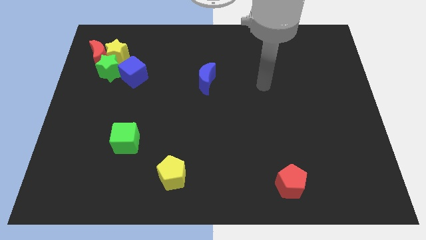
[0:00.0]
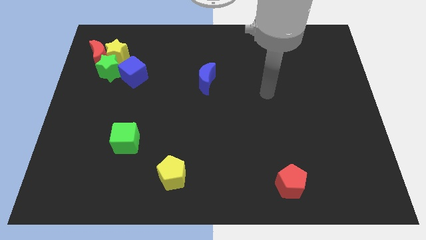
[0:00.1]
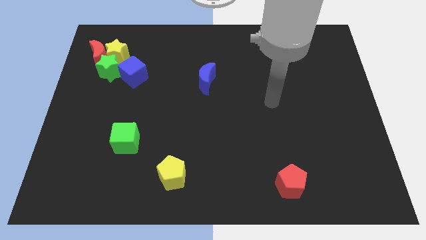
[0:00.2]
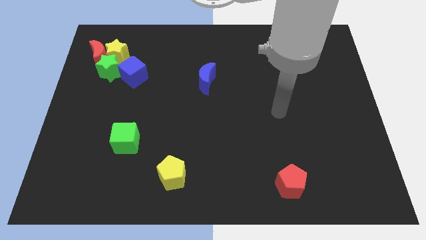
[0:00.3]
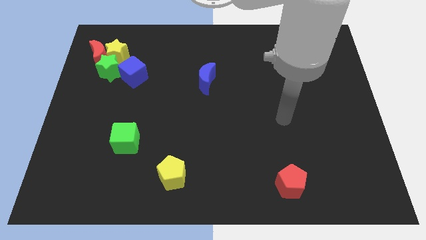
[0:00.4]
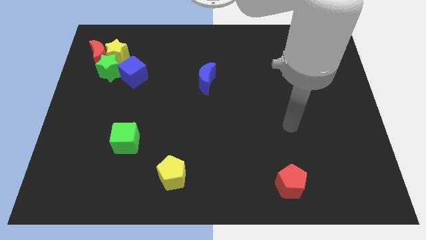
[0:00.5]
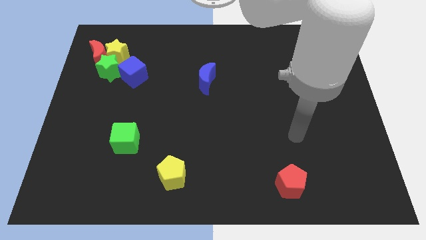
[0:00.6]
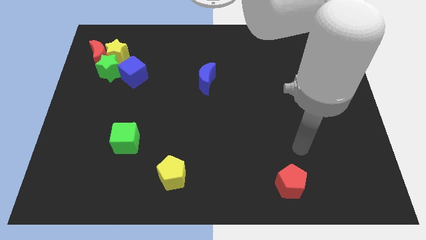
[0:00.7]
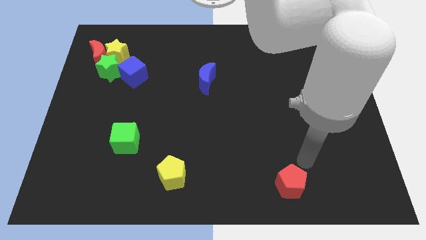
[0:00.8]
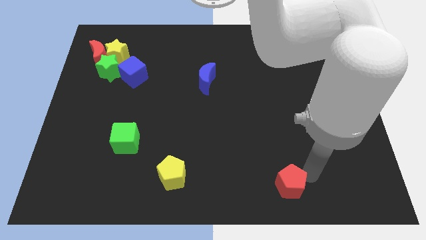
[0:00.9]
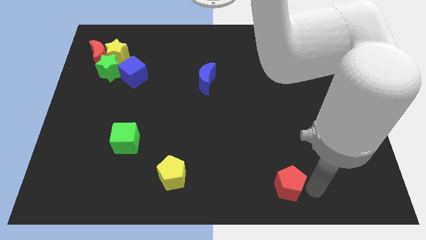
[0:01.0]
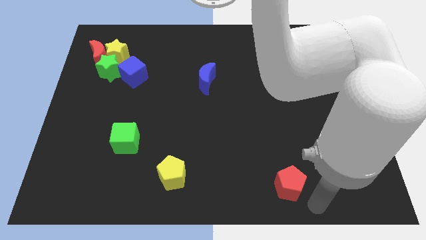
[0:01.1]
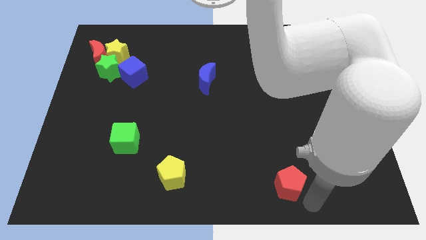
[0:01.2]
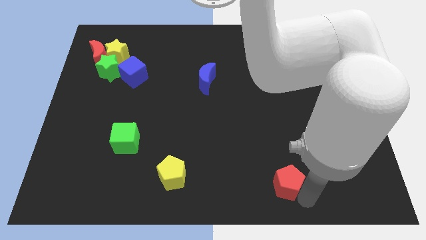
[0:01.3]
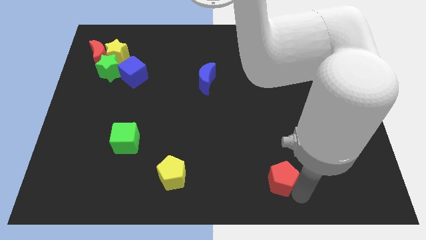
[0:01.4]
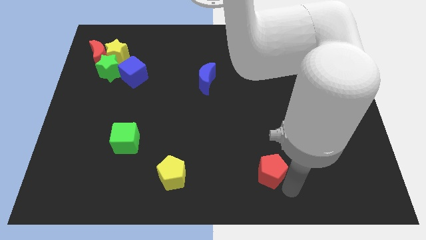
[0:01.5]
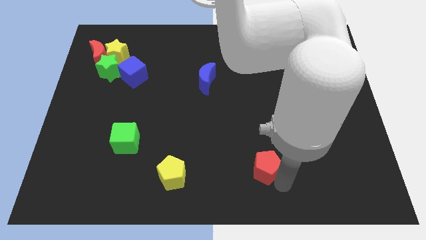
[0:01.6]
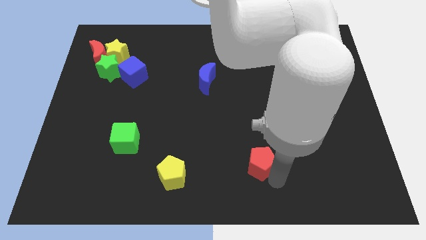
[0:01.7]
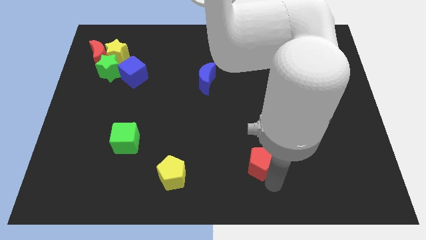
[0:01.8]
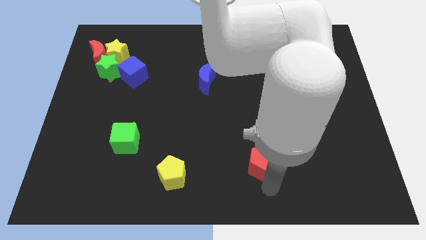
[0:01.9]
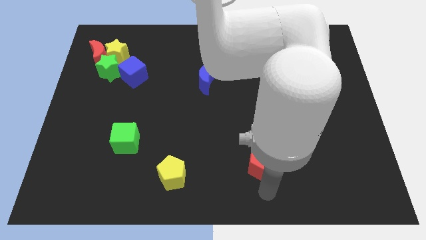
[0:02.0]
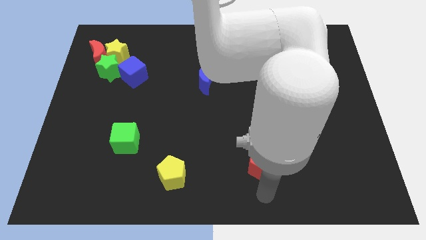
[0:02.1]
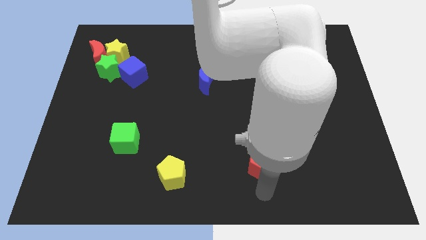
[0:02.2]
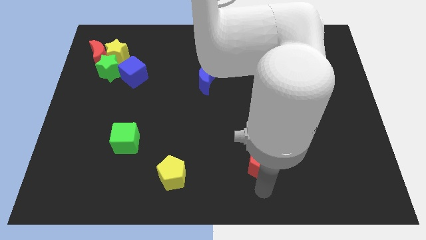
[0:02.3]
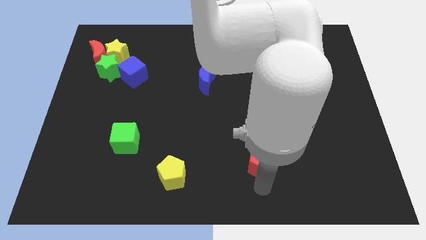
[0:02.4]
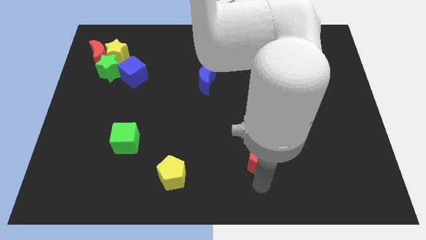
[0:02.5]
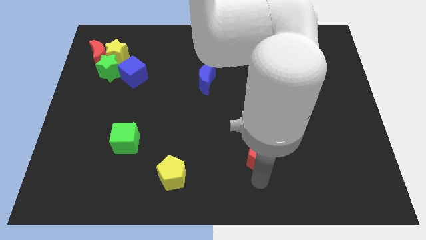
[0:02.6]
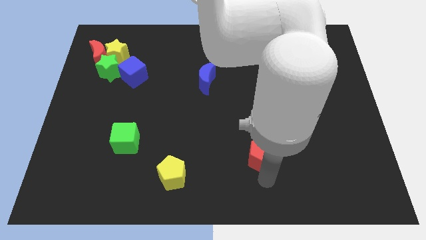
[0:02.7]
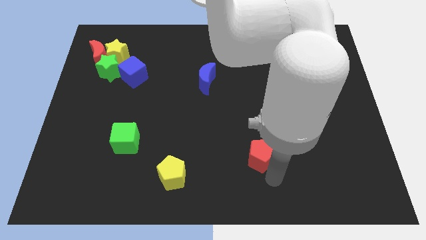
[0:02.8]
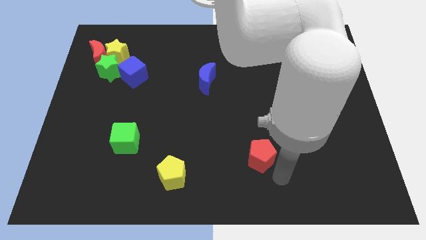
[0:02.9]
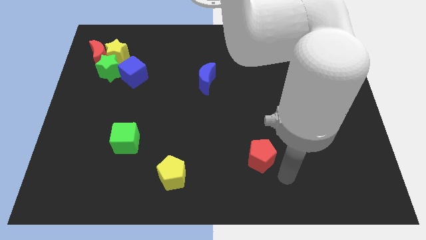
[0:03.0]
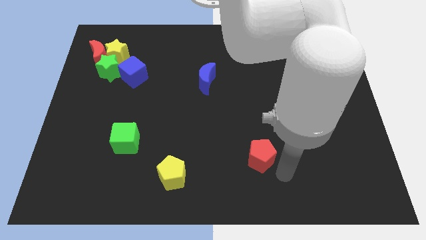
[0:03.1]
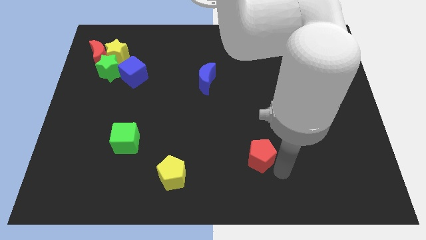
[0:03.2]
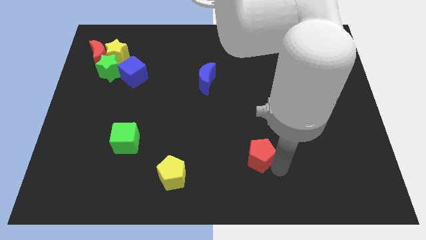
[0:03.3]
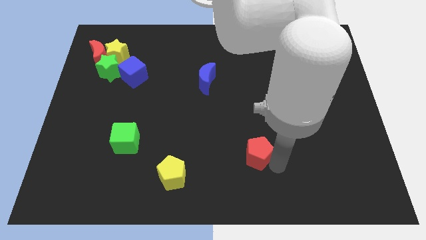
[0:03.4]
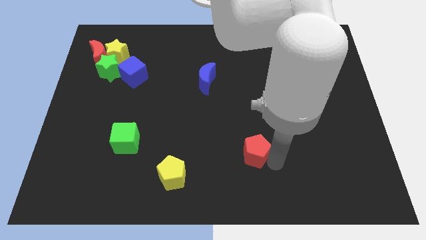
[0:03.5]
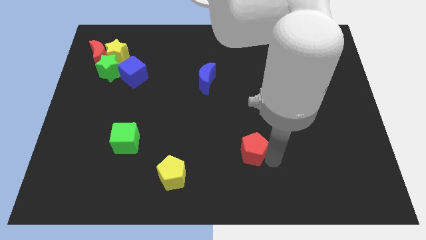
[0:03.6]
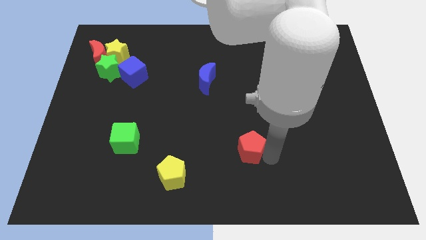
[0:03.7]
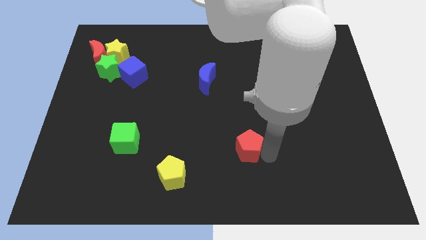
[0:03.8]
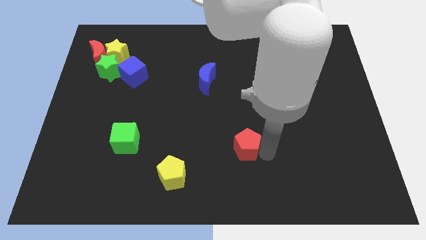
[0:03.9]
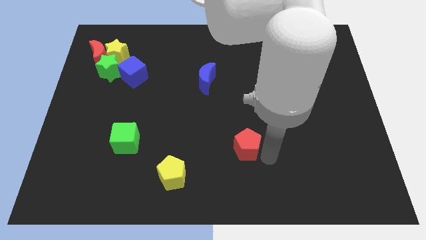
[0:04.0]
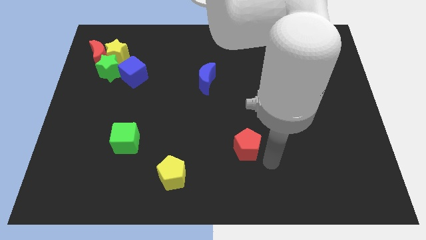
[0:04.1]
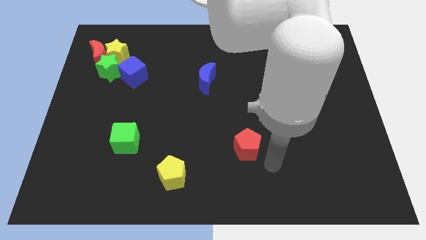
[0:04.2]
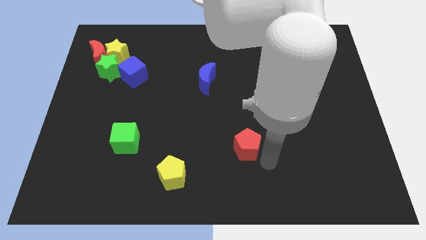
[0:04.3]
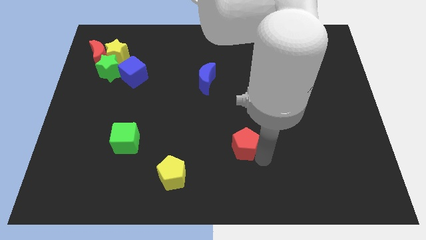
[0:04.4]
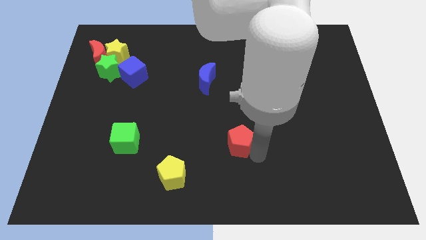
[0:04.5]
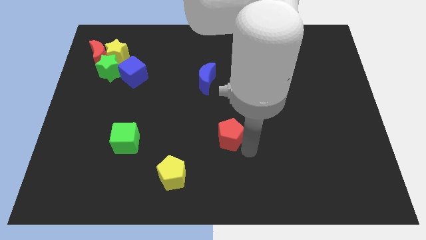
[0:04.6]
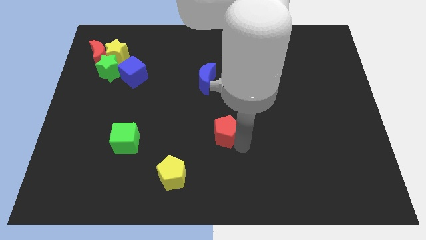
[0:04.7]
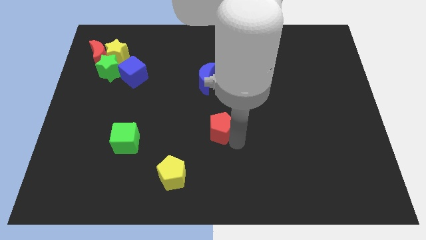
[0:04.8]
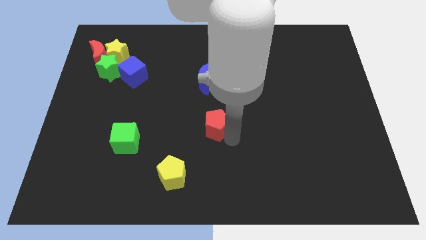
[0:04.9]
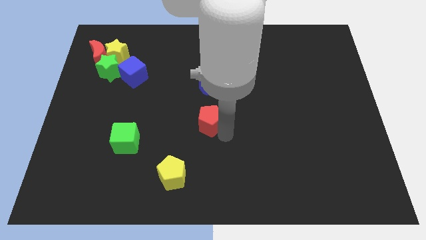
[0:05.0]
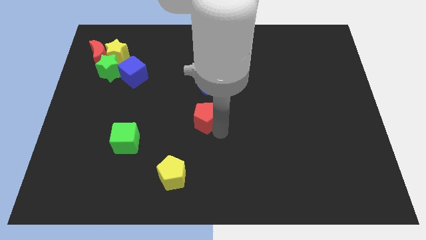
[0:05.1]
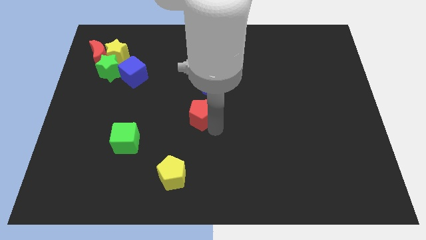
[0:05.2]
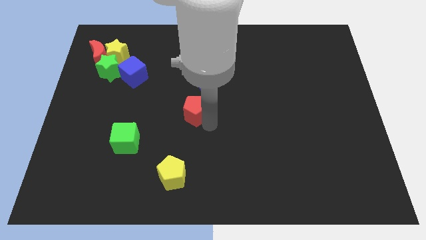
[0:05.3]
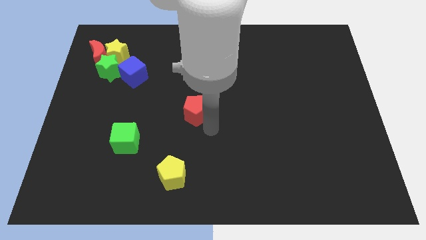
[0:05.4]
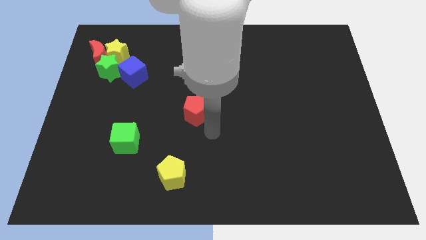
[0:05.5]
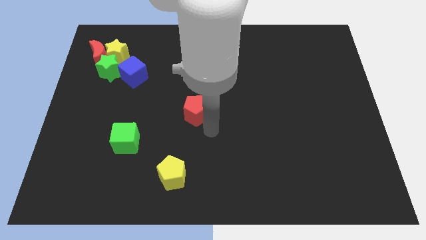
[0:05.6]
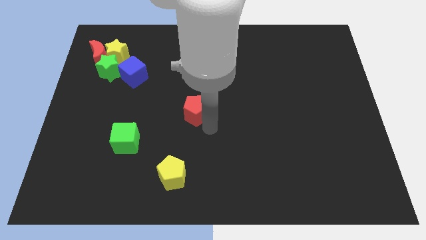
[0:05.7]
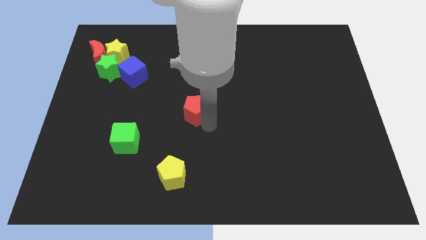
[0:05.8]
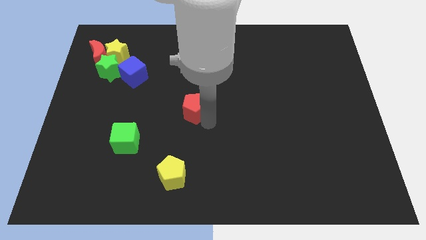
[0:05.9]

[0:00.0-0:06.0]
push the red pentagon diagonally down and to the left of the blue moon

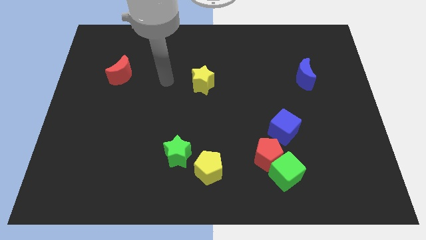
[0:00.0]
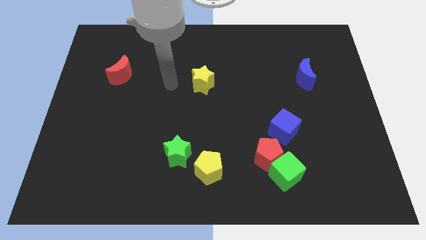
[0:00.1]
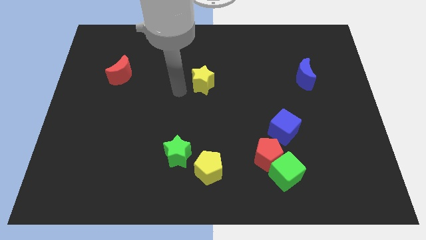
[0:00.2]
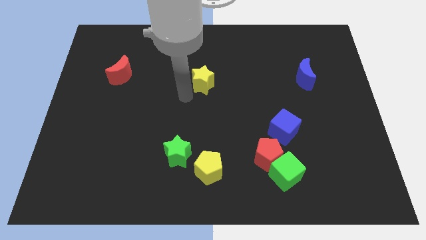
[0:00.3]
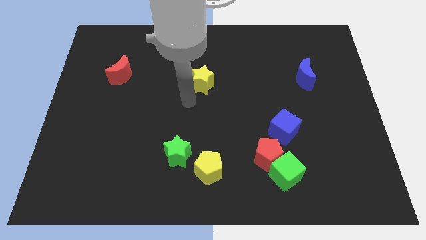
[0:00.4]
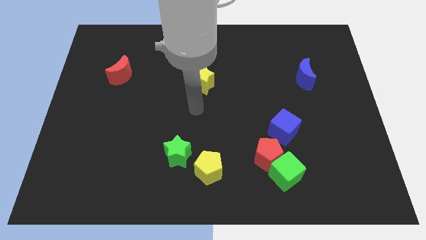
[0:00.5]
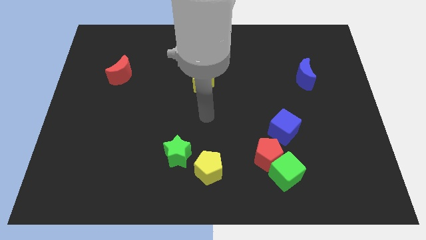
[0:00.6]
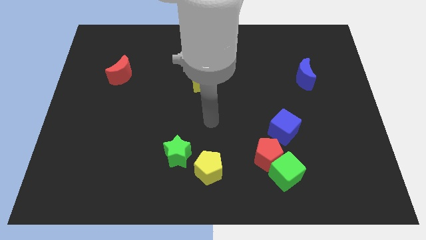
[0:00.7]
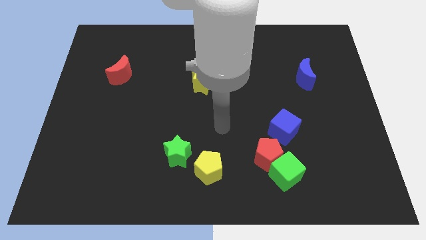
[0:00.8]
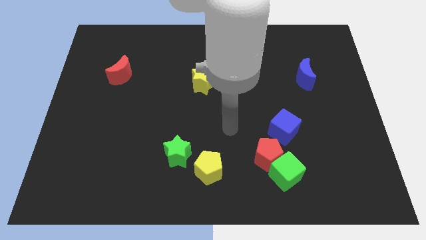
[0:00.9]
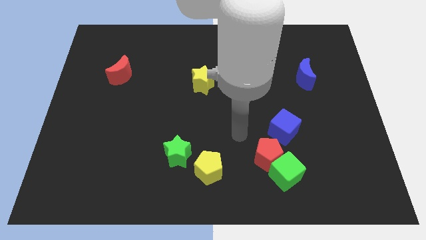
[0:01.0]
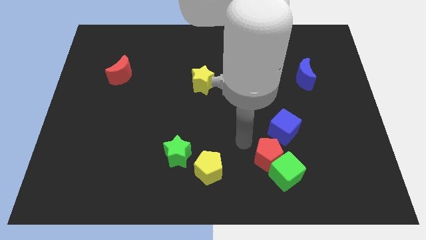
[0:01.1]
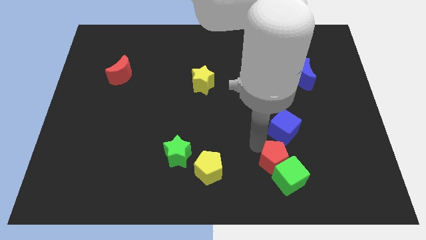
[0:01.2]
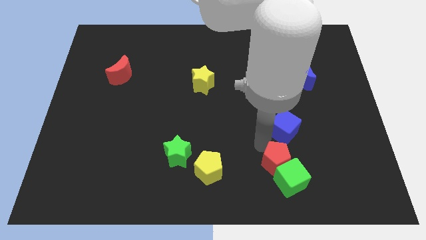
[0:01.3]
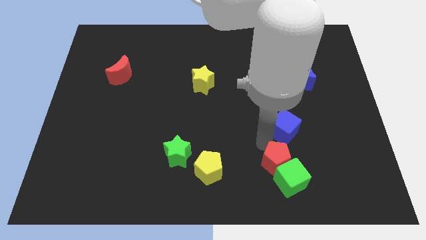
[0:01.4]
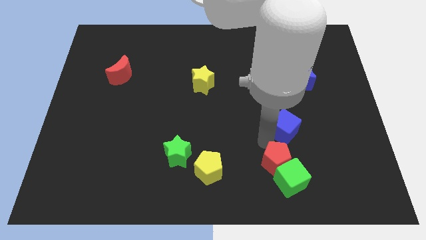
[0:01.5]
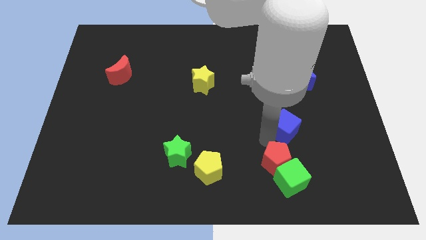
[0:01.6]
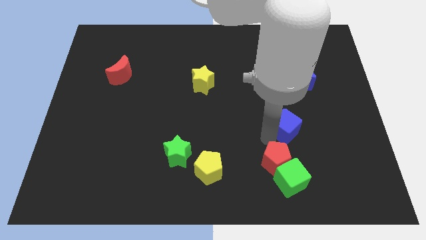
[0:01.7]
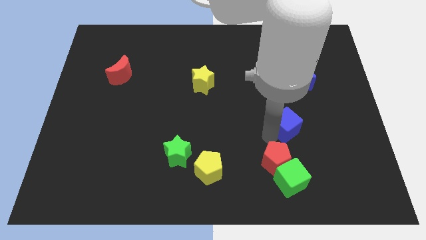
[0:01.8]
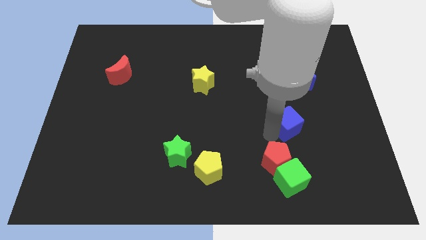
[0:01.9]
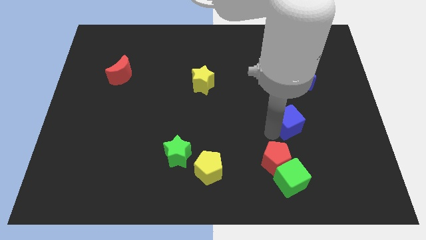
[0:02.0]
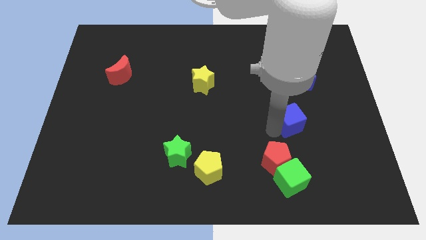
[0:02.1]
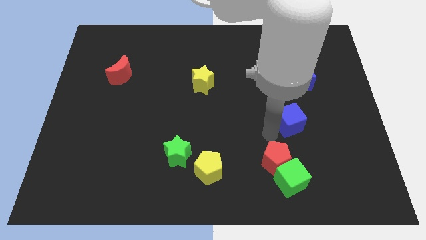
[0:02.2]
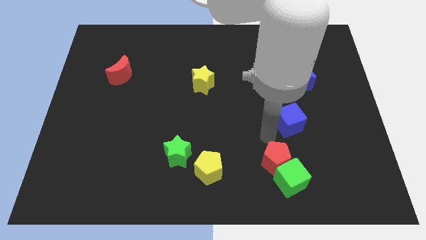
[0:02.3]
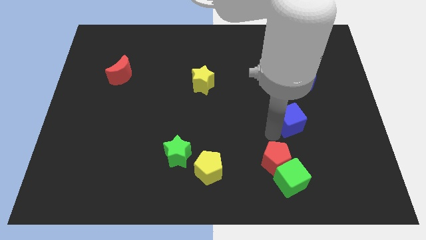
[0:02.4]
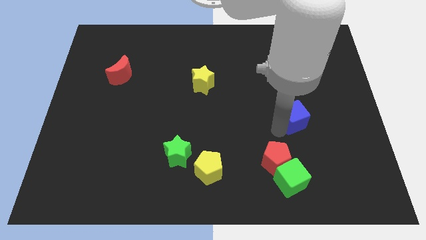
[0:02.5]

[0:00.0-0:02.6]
slide the blue cube to the bottom of the blue moon
